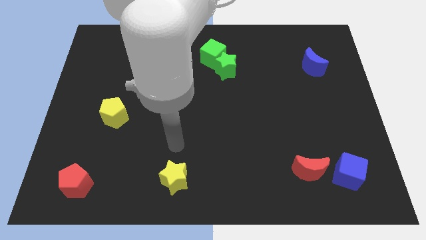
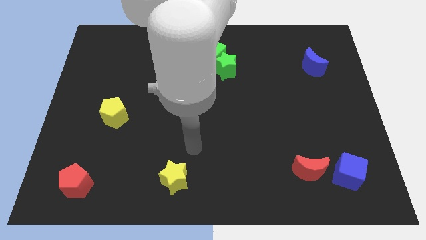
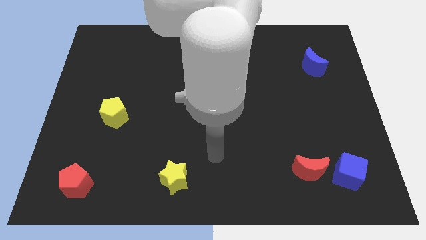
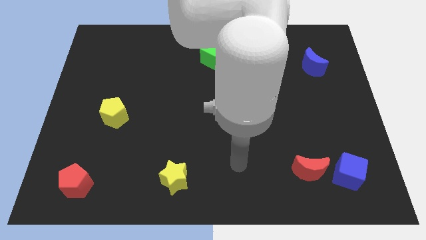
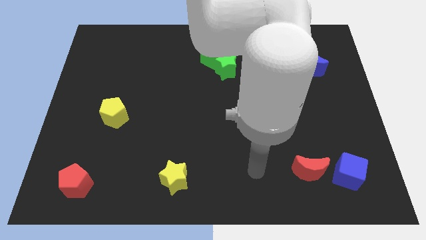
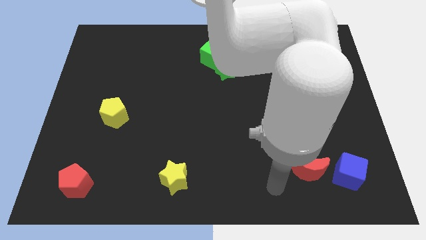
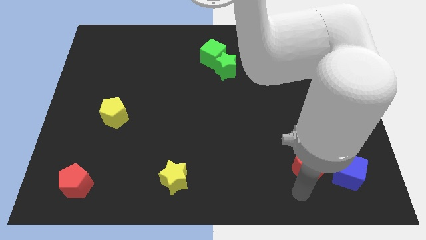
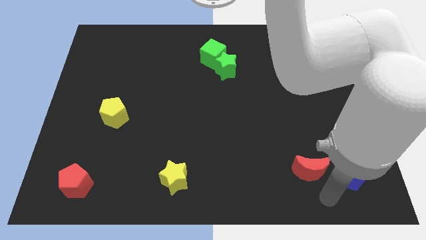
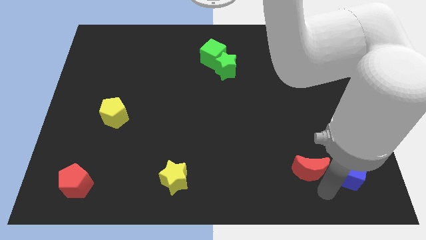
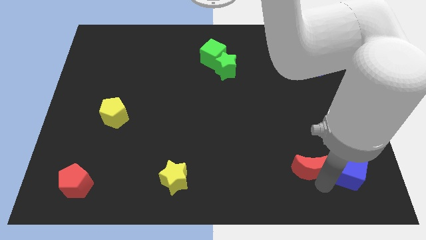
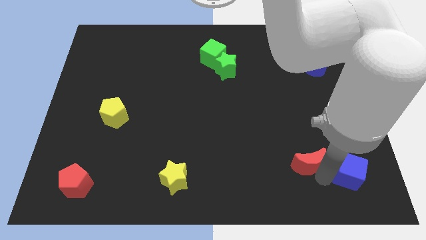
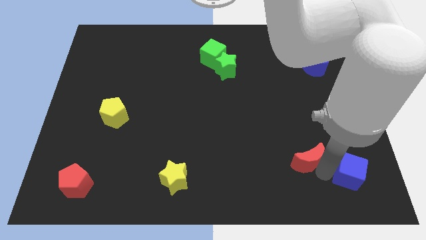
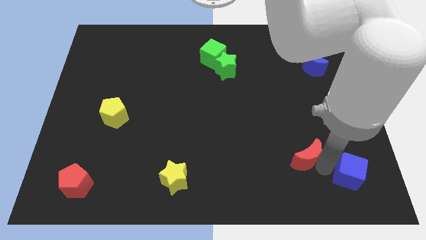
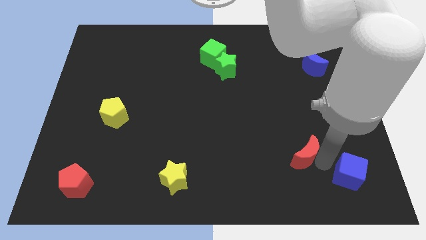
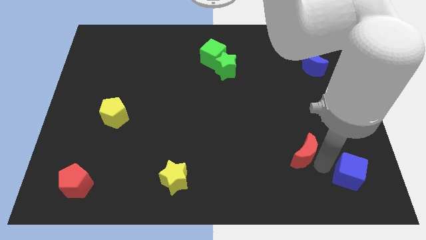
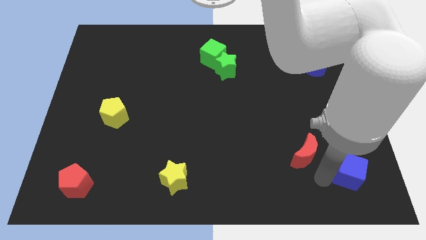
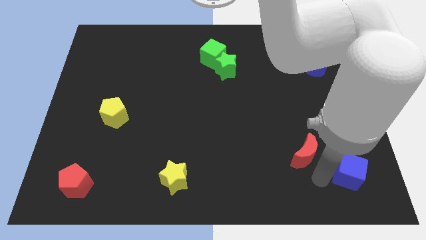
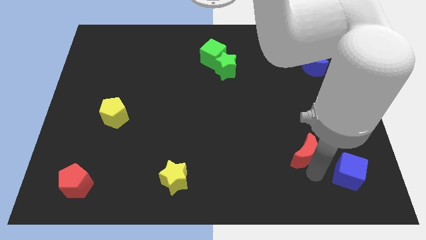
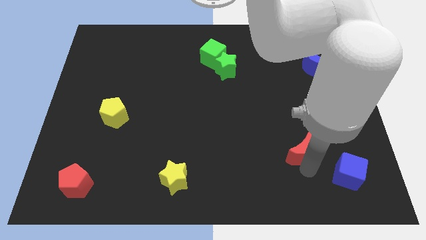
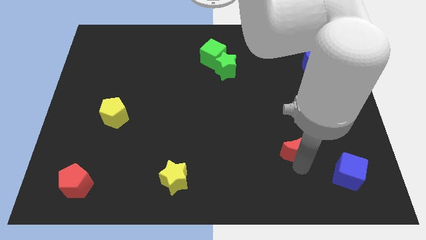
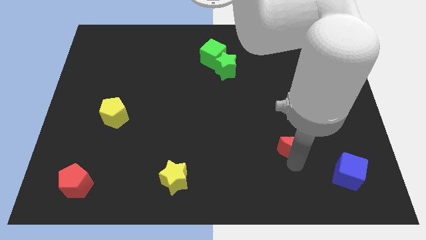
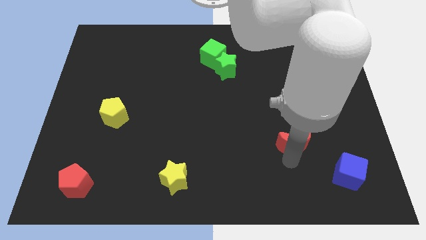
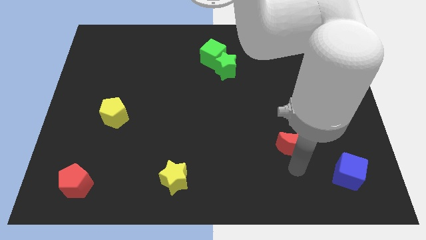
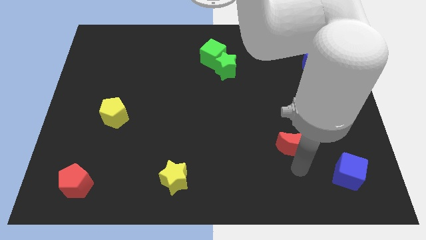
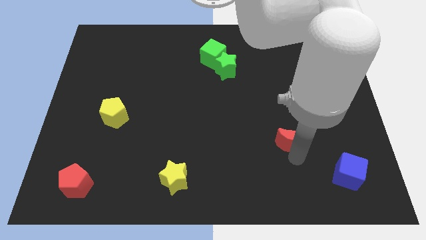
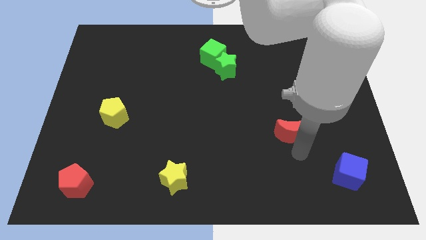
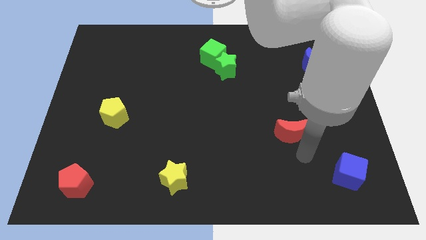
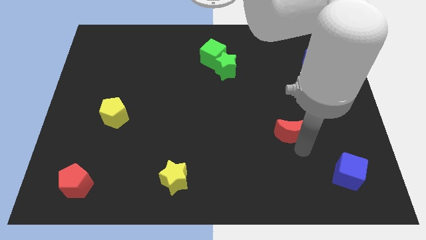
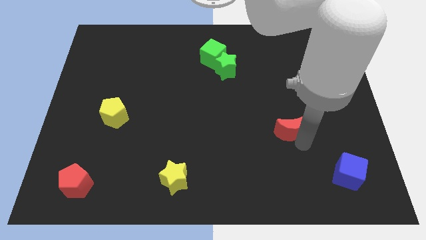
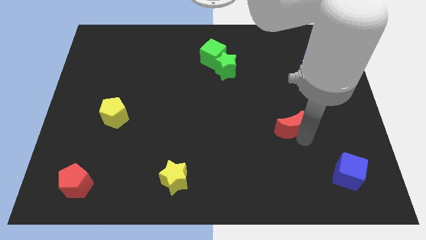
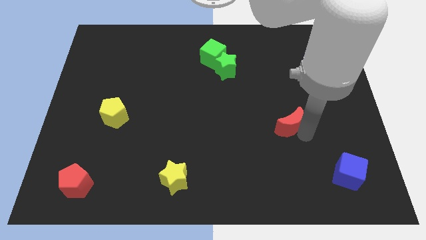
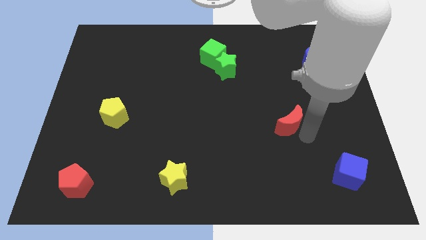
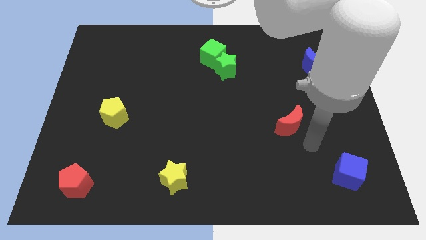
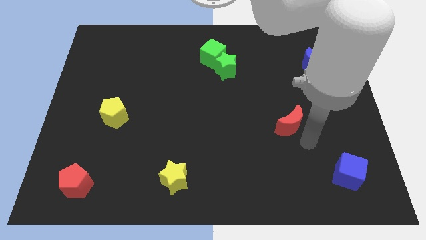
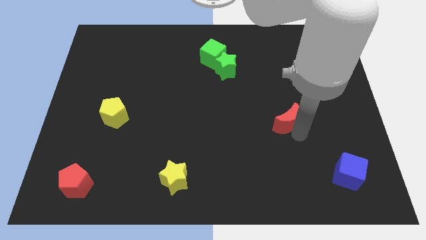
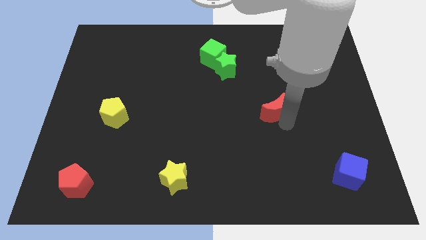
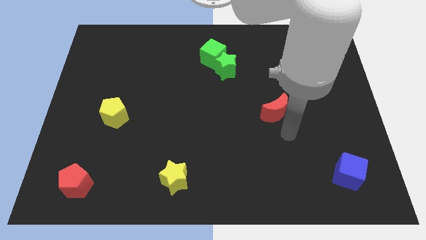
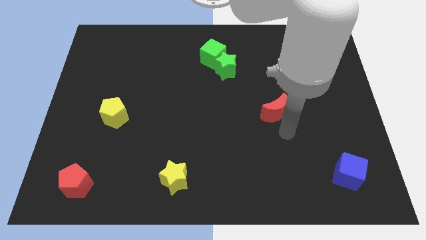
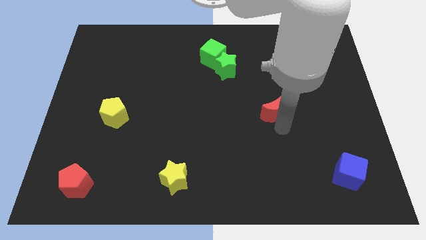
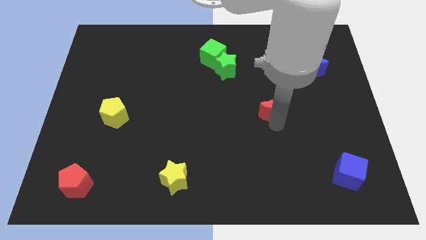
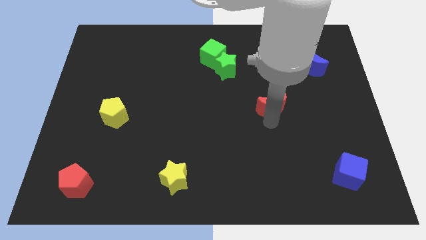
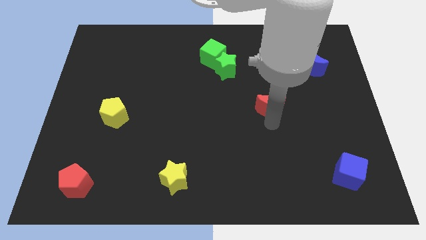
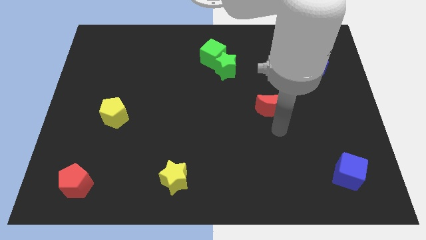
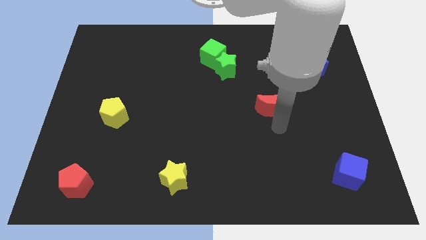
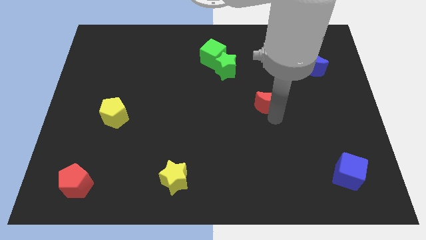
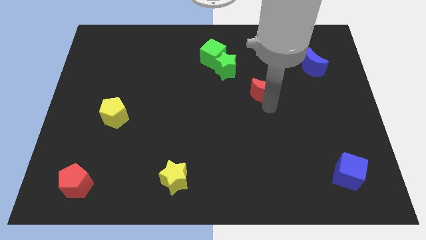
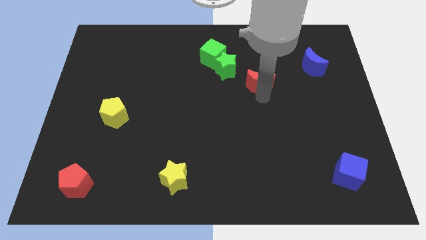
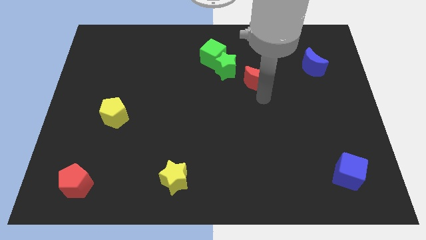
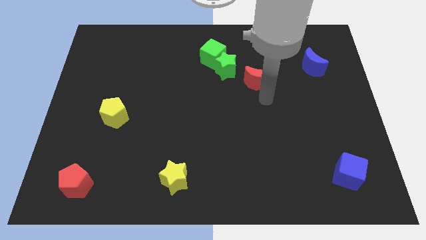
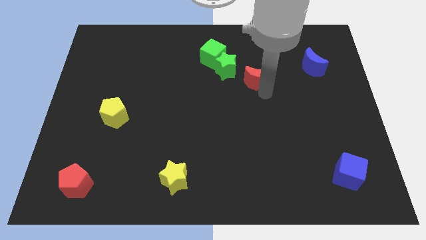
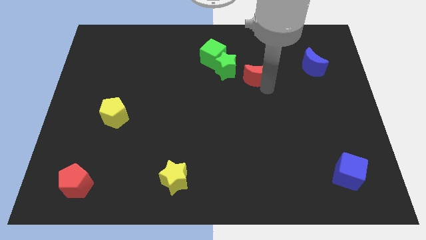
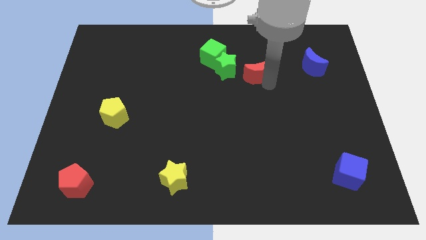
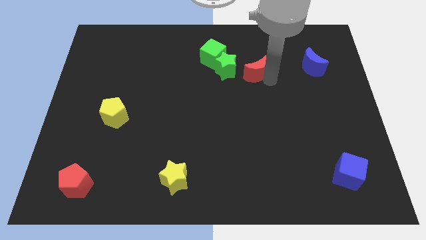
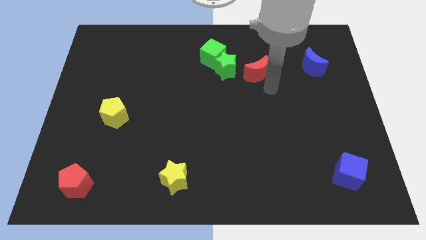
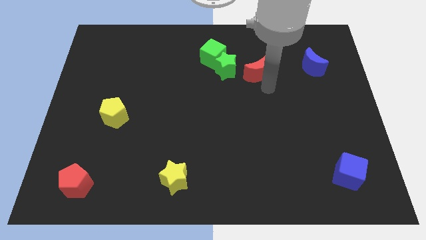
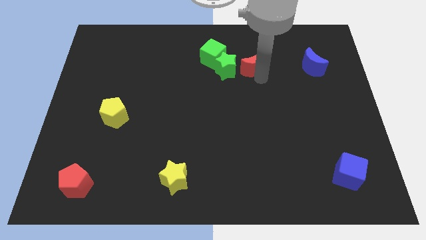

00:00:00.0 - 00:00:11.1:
move the red moon diagonally up and to the right of the green star

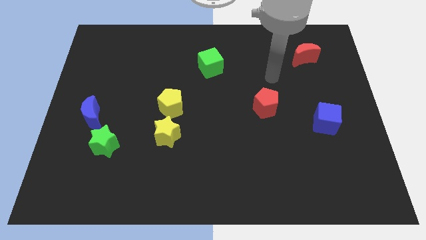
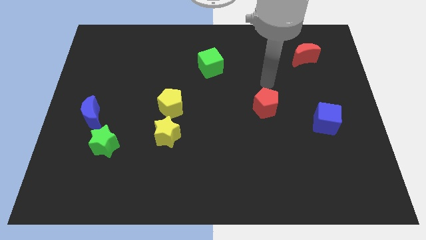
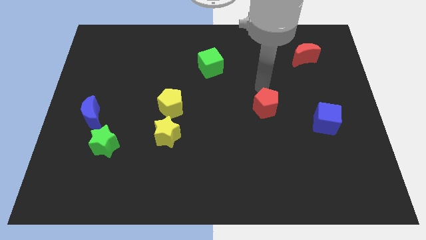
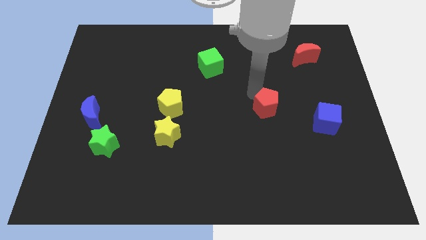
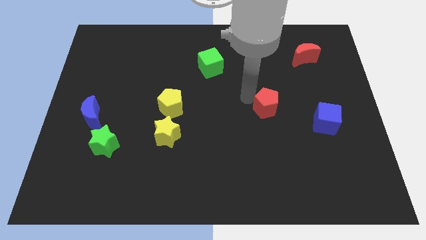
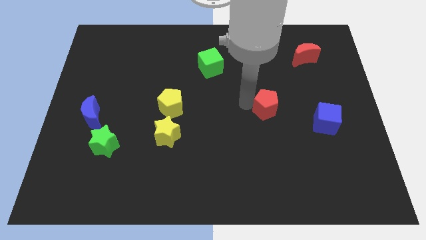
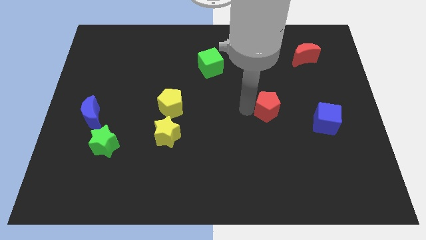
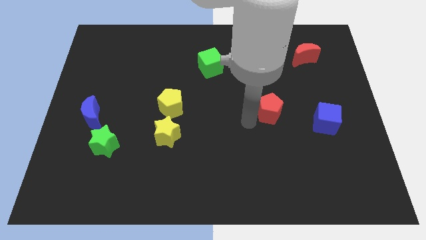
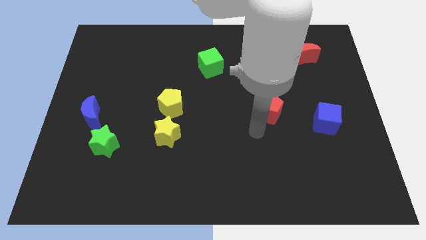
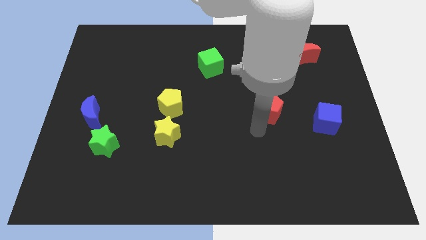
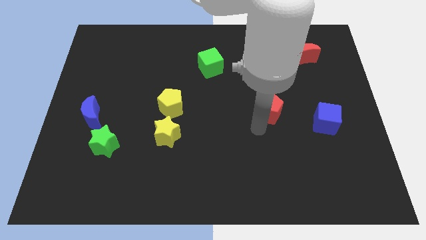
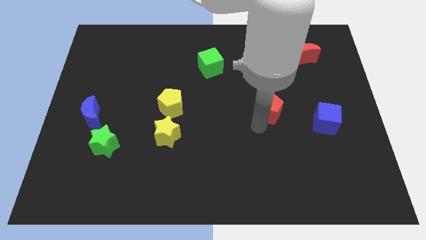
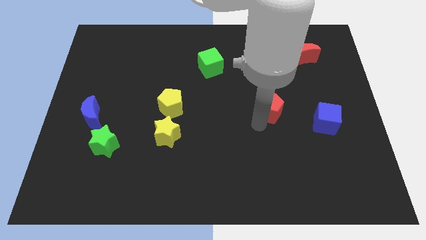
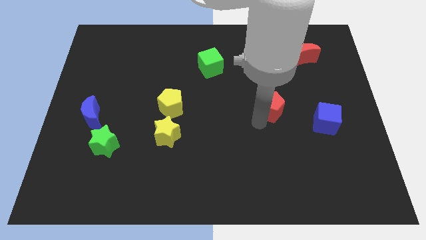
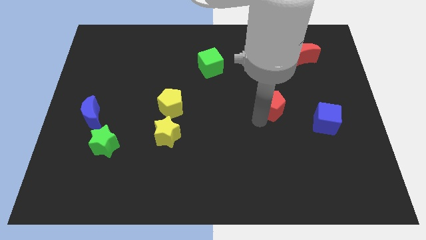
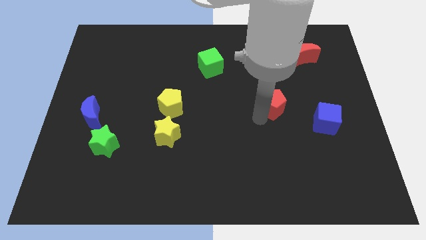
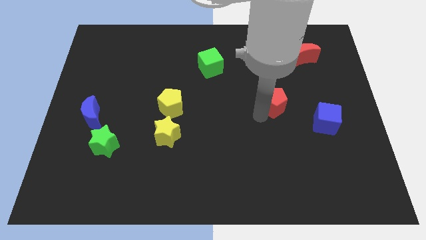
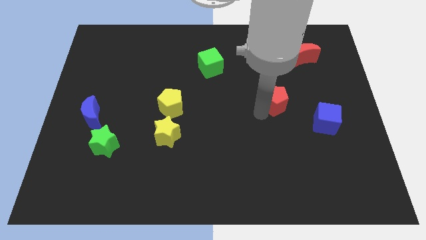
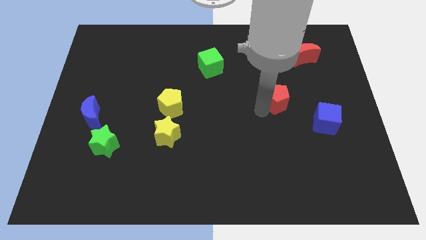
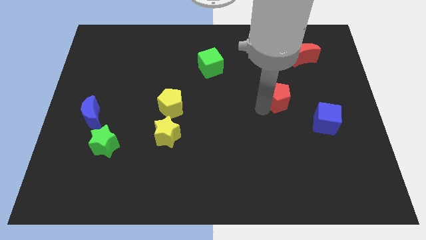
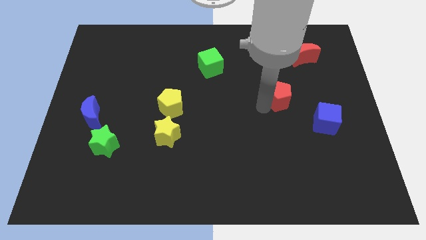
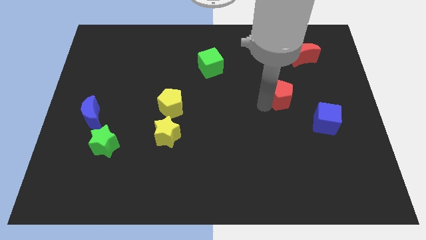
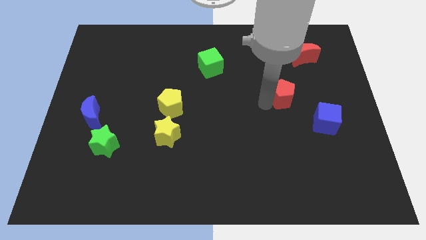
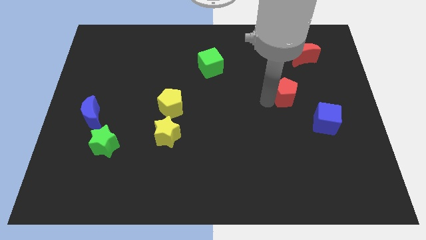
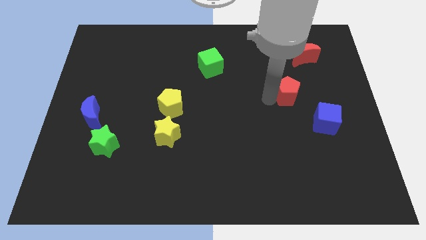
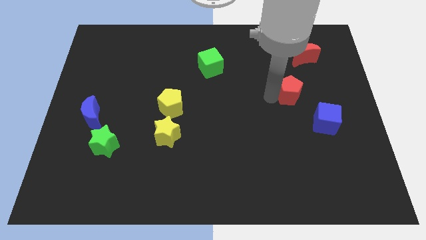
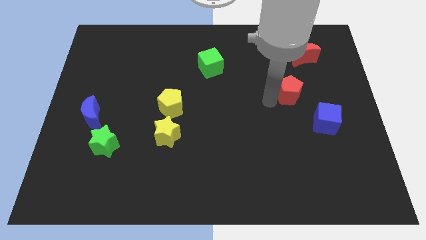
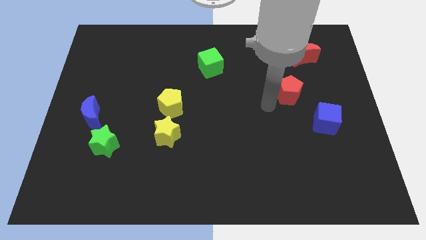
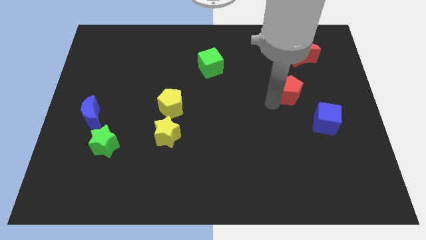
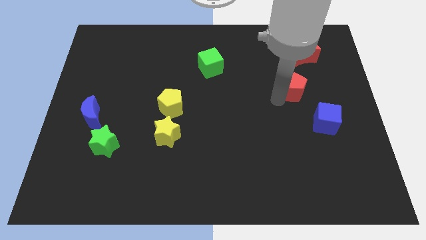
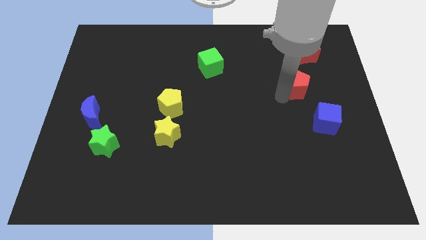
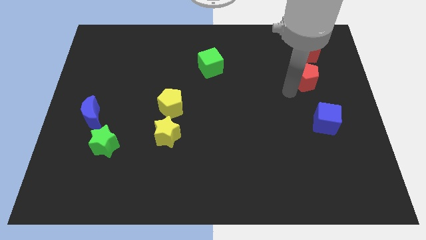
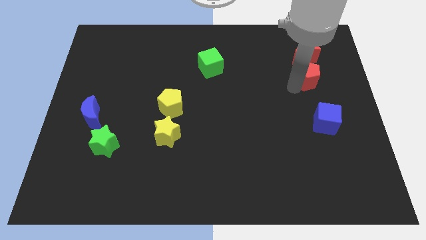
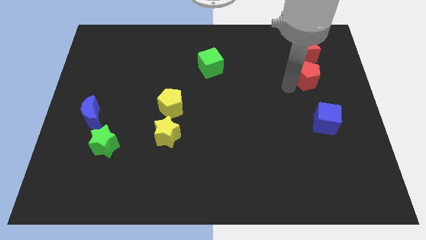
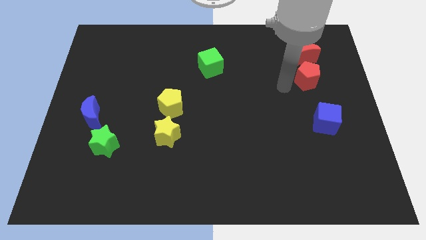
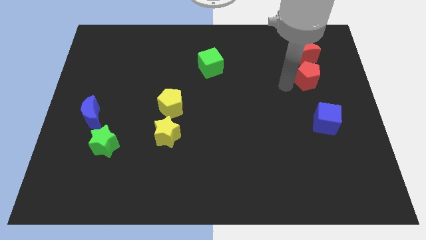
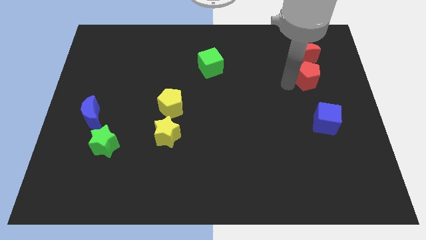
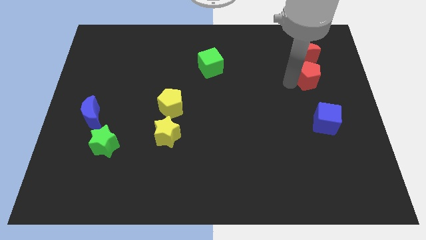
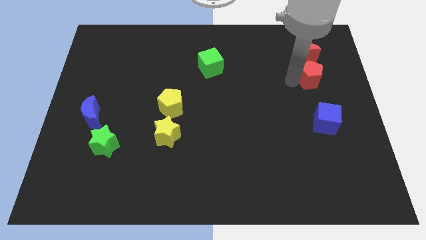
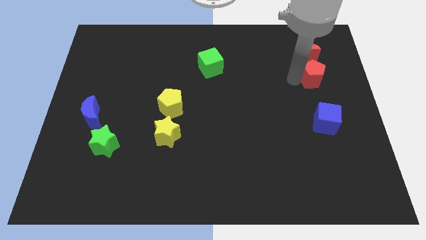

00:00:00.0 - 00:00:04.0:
move the red pentagon diagonally down and to the right of the red moon
